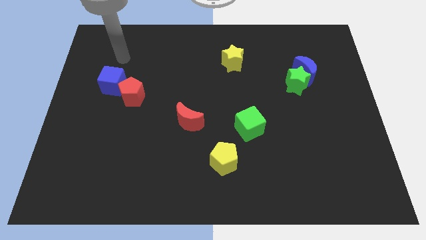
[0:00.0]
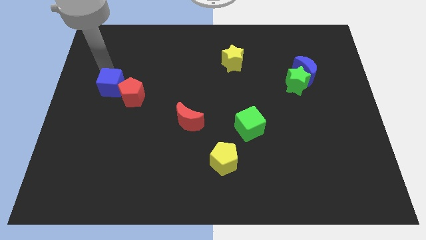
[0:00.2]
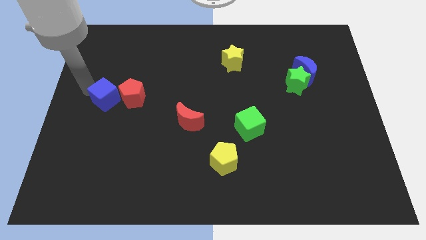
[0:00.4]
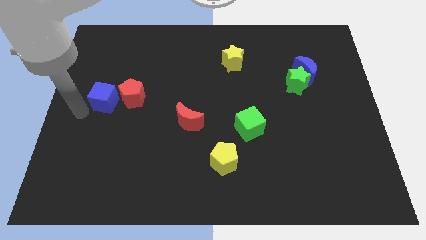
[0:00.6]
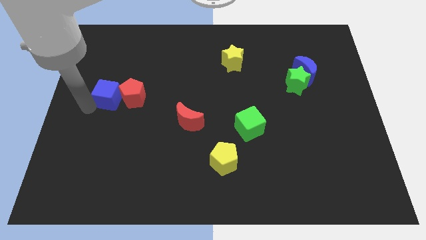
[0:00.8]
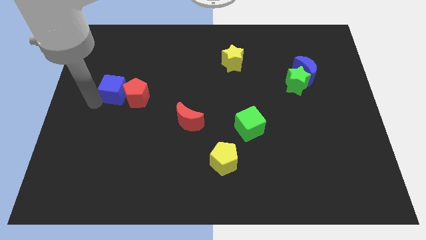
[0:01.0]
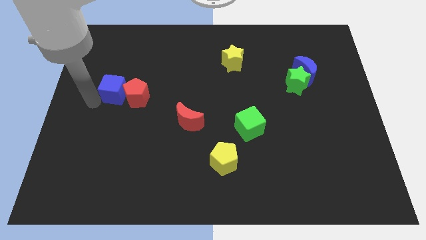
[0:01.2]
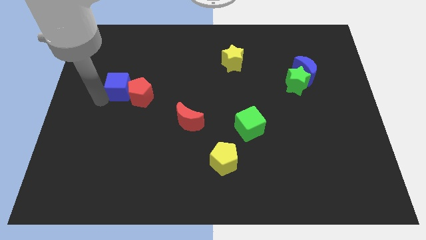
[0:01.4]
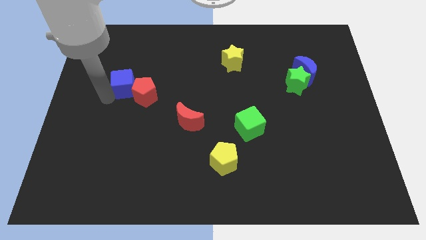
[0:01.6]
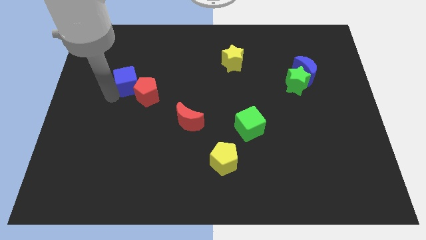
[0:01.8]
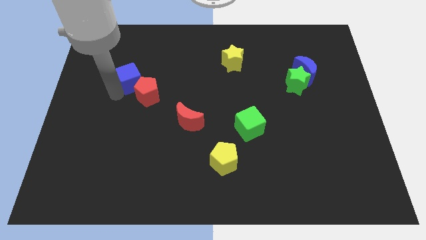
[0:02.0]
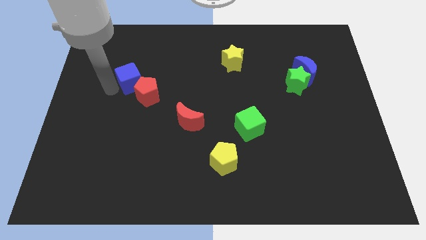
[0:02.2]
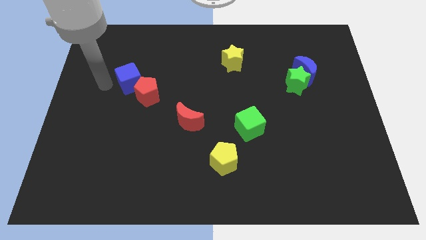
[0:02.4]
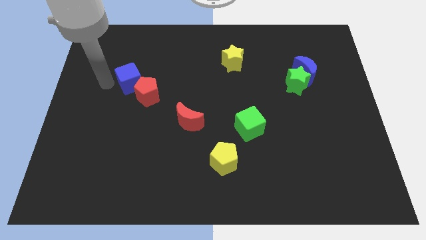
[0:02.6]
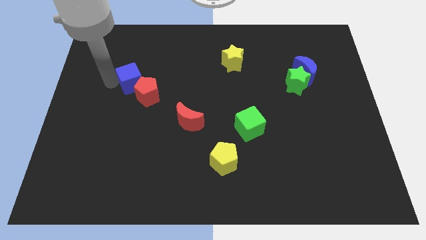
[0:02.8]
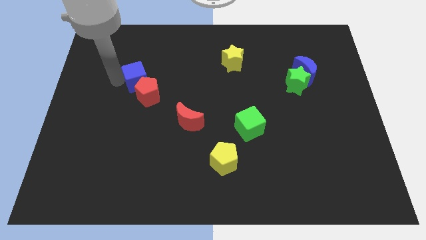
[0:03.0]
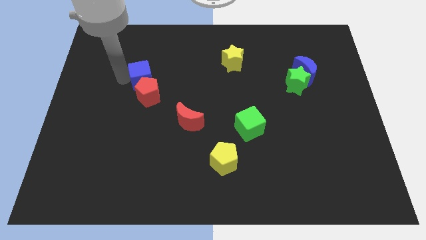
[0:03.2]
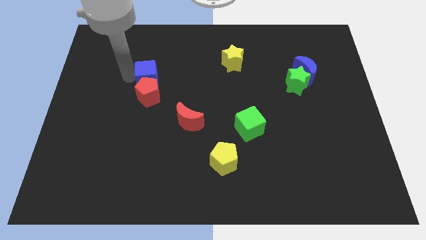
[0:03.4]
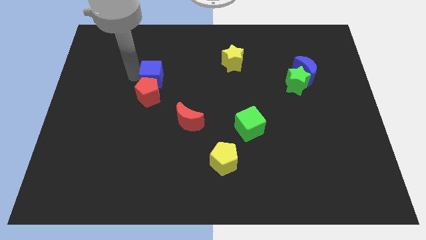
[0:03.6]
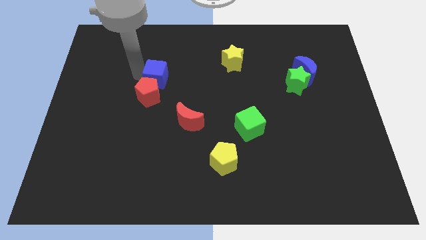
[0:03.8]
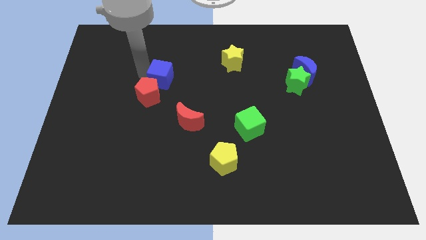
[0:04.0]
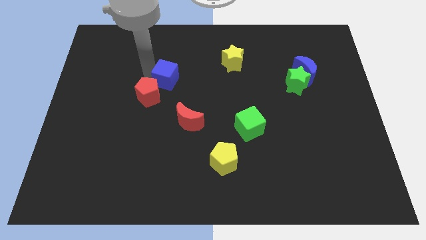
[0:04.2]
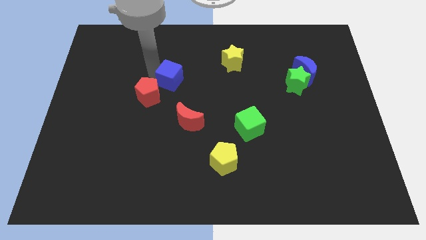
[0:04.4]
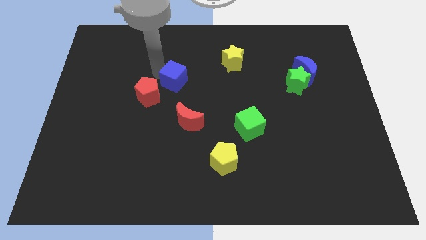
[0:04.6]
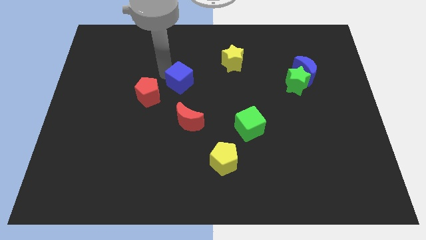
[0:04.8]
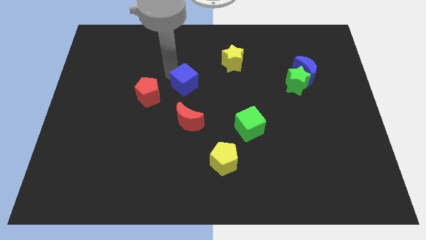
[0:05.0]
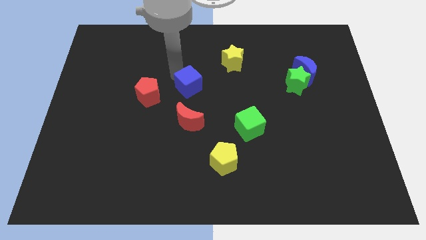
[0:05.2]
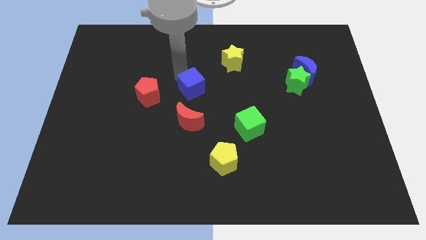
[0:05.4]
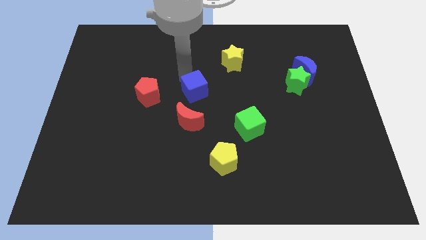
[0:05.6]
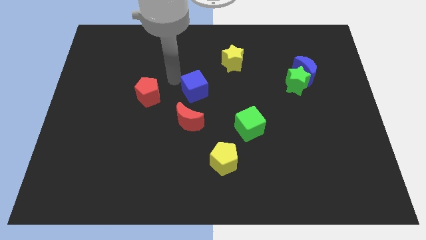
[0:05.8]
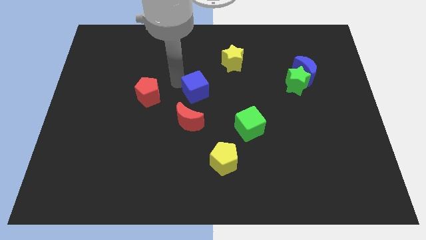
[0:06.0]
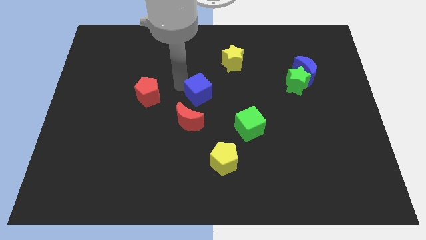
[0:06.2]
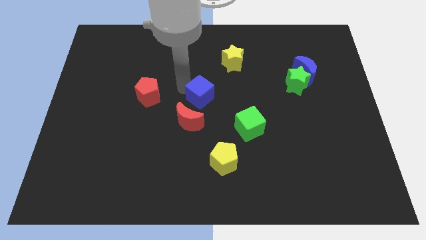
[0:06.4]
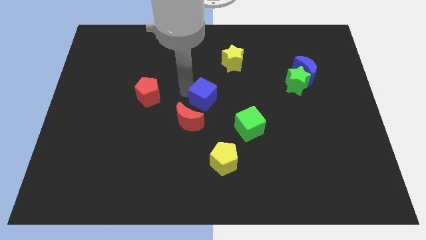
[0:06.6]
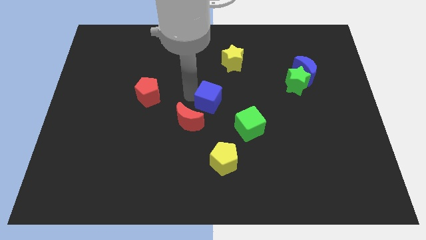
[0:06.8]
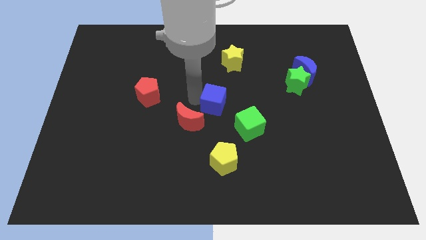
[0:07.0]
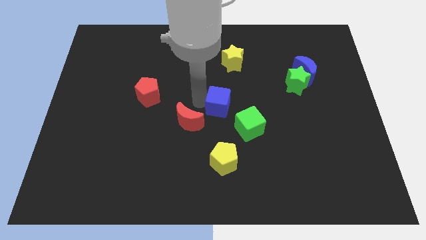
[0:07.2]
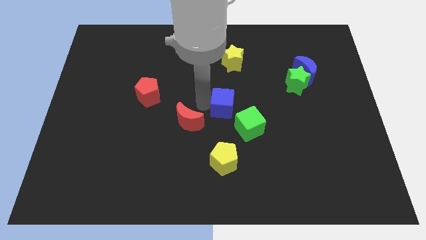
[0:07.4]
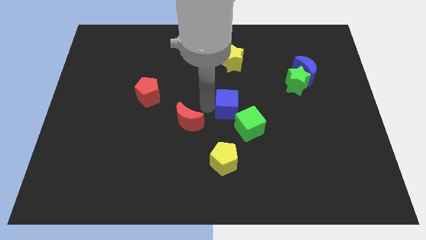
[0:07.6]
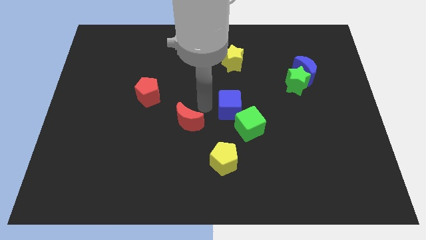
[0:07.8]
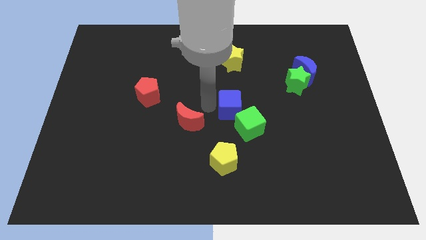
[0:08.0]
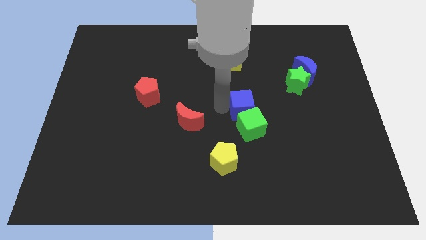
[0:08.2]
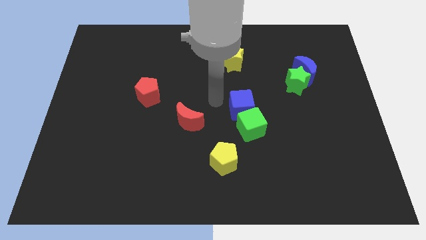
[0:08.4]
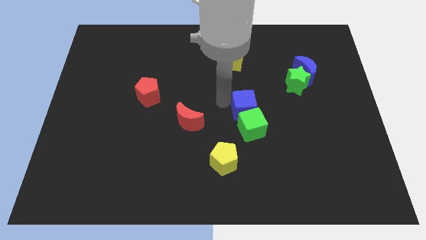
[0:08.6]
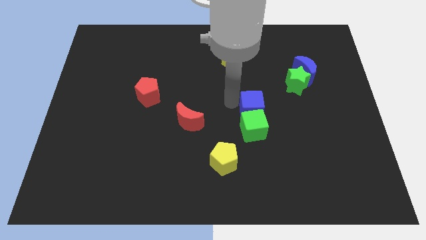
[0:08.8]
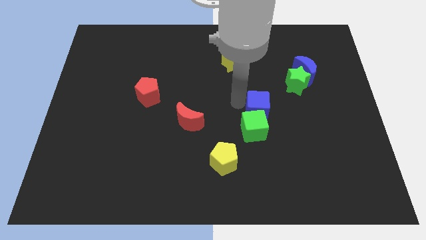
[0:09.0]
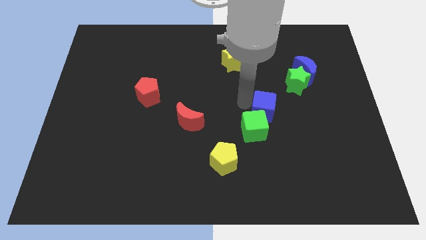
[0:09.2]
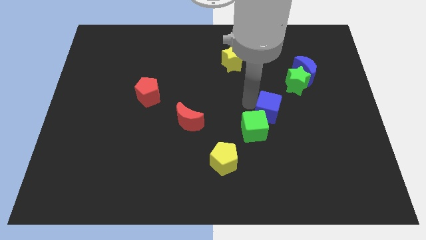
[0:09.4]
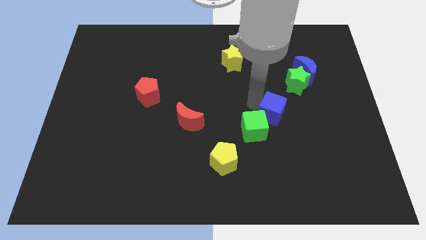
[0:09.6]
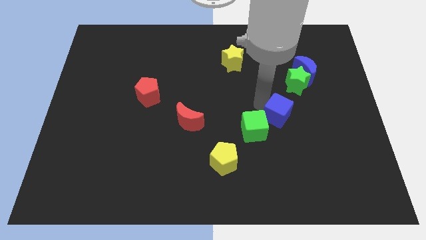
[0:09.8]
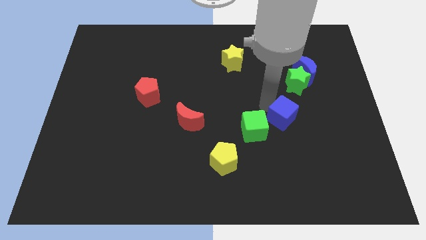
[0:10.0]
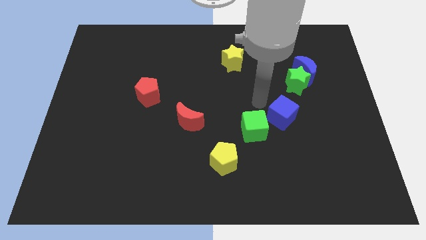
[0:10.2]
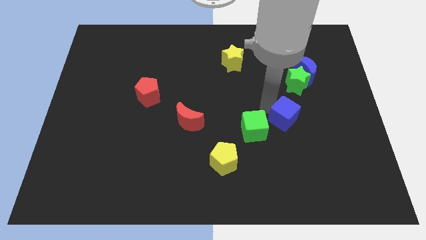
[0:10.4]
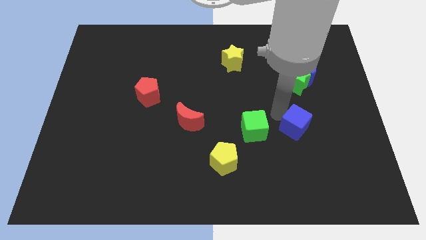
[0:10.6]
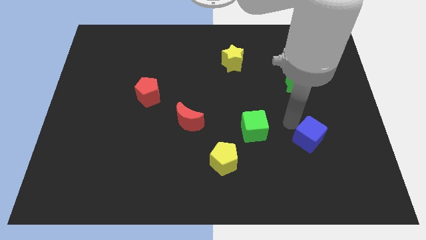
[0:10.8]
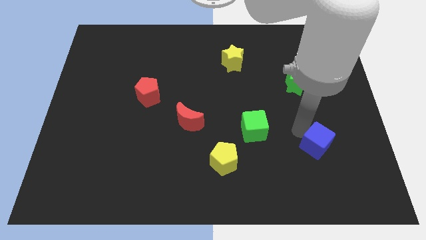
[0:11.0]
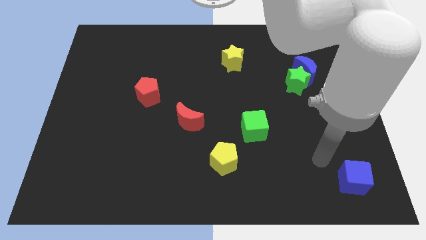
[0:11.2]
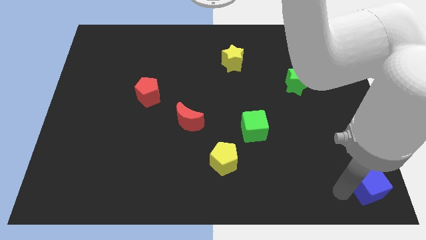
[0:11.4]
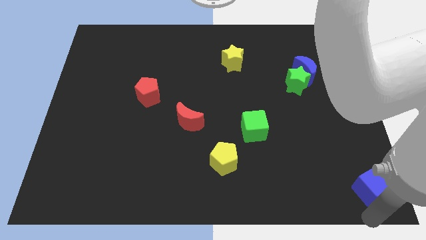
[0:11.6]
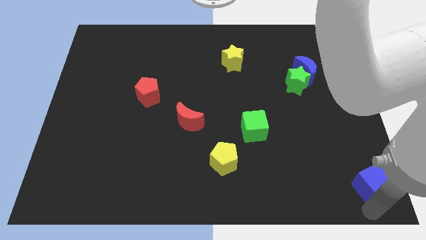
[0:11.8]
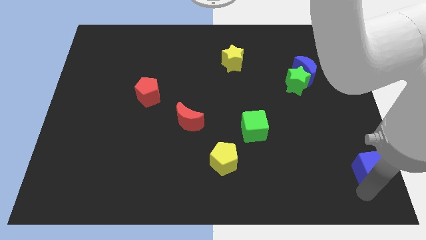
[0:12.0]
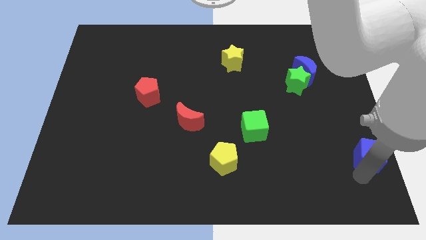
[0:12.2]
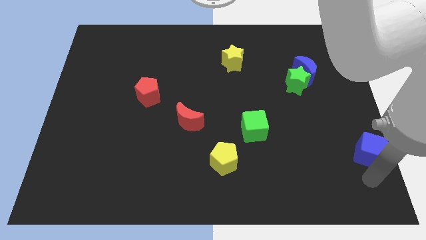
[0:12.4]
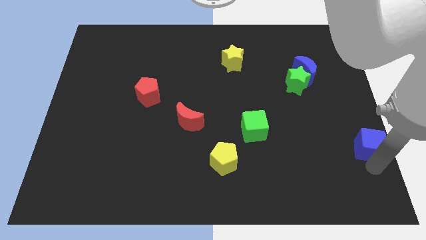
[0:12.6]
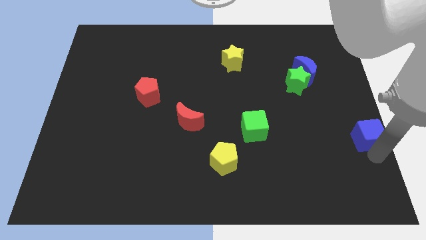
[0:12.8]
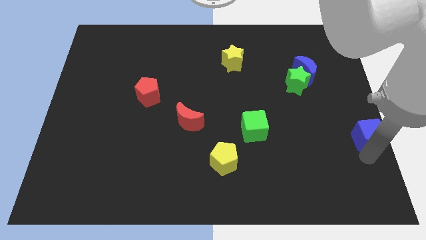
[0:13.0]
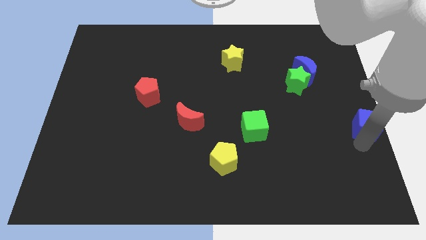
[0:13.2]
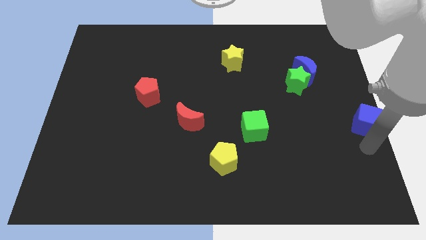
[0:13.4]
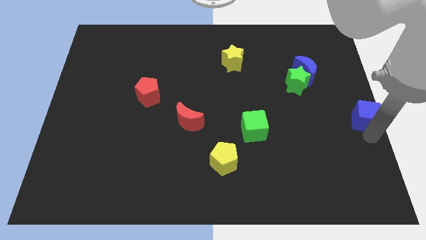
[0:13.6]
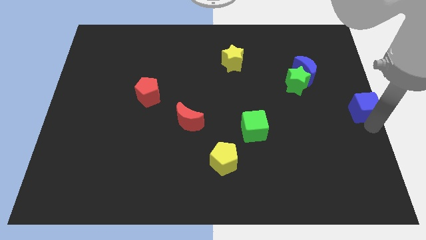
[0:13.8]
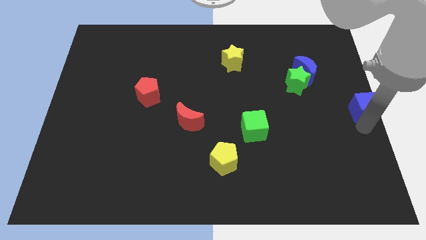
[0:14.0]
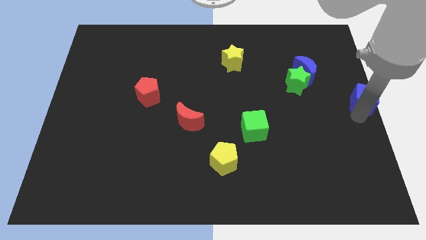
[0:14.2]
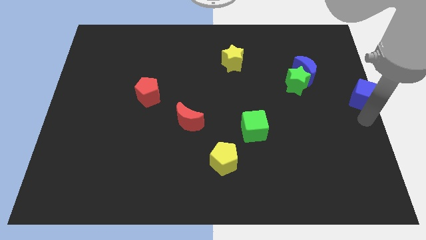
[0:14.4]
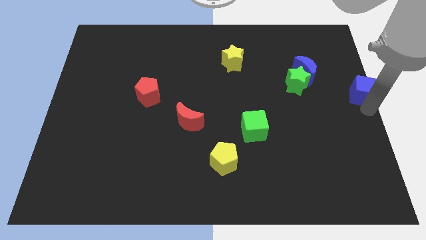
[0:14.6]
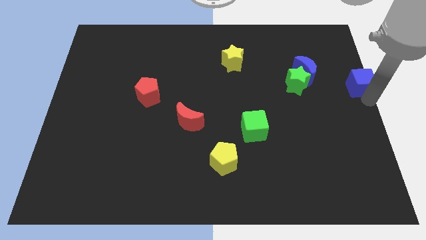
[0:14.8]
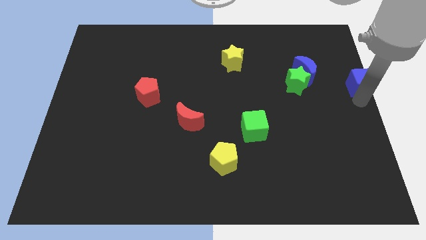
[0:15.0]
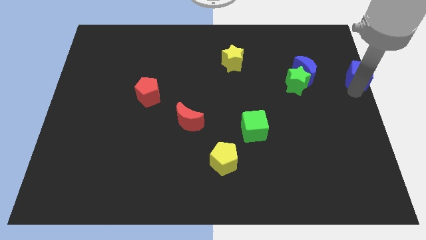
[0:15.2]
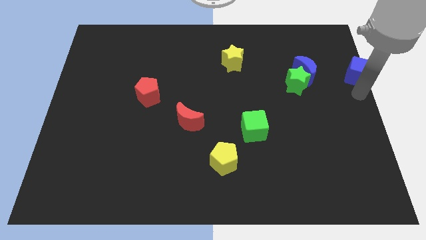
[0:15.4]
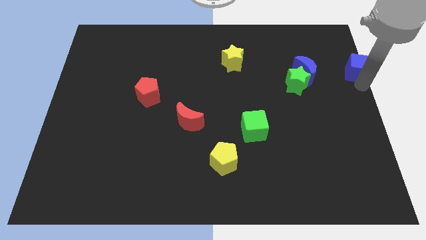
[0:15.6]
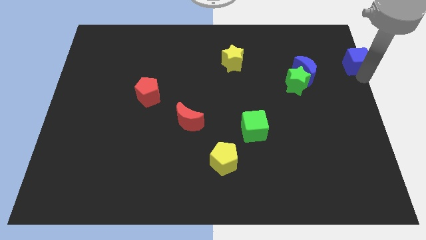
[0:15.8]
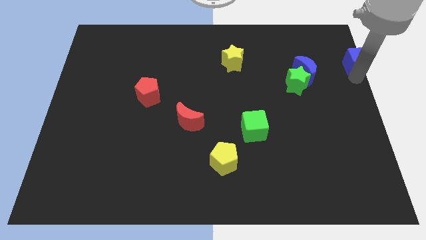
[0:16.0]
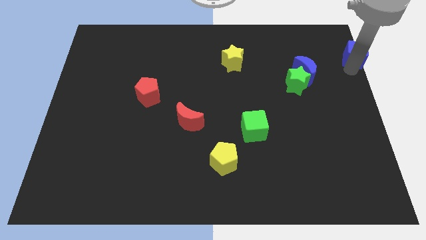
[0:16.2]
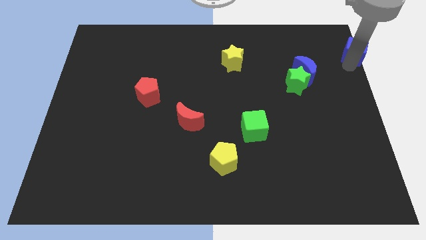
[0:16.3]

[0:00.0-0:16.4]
slide the blue cube to the top right corner
